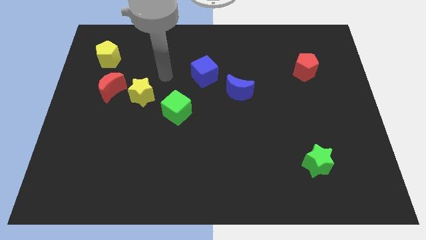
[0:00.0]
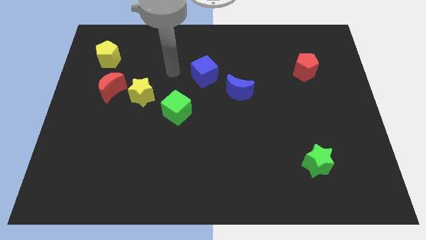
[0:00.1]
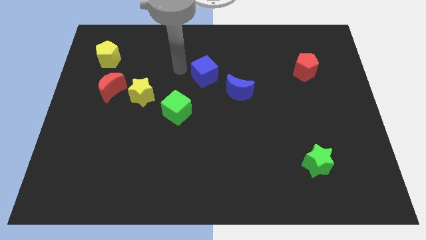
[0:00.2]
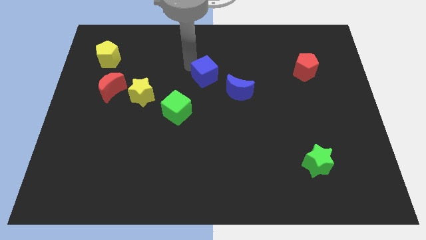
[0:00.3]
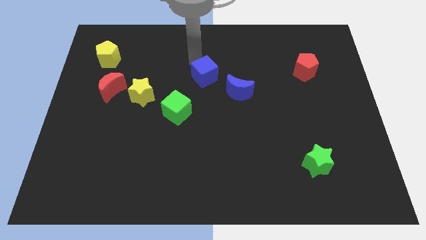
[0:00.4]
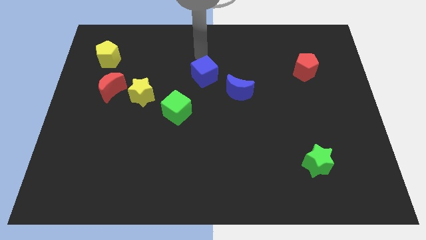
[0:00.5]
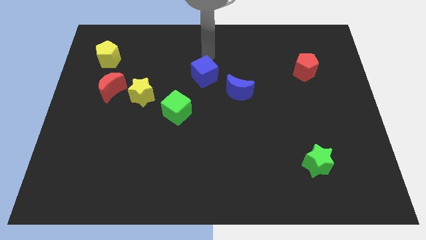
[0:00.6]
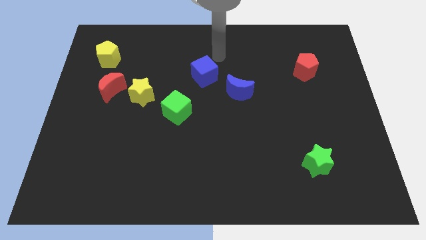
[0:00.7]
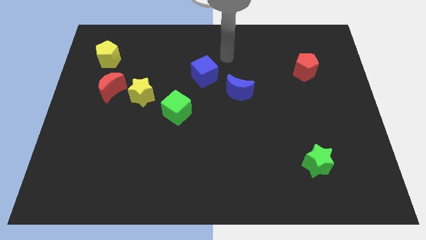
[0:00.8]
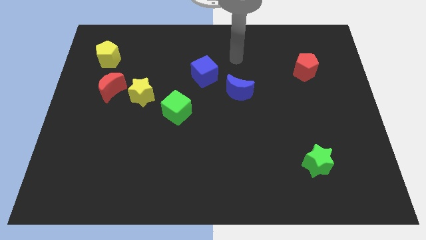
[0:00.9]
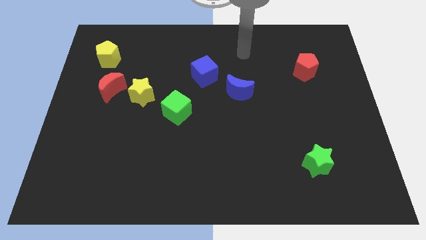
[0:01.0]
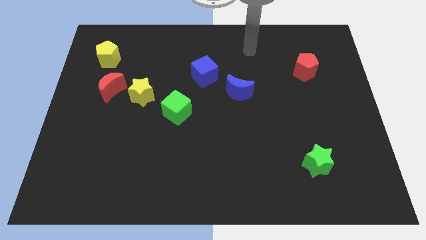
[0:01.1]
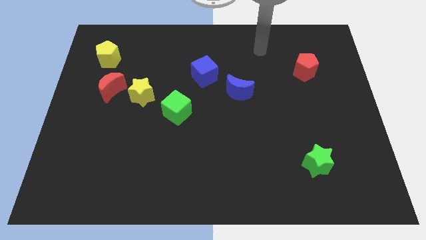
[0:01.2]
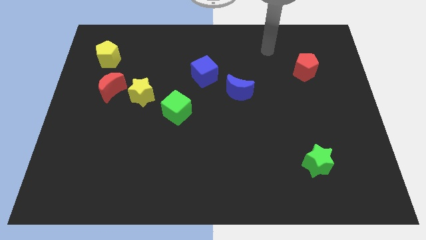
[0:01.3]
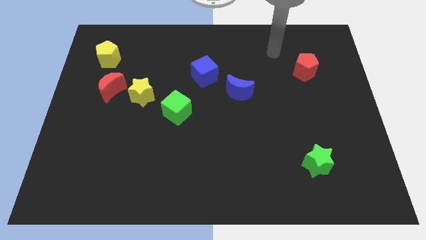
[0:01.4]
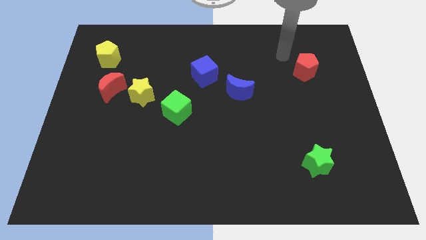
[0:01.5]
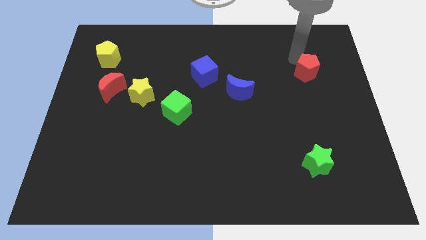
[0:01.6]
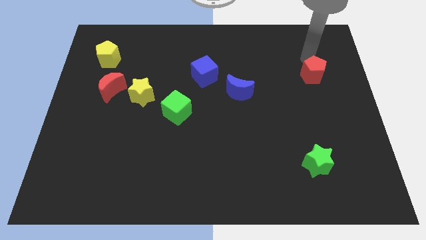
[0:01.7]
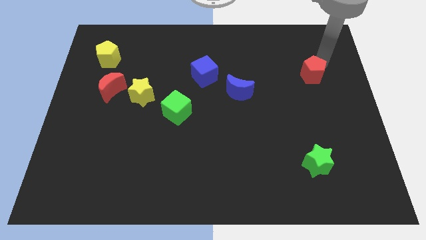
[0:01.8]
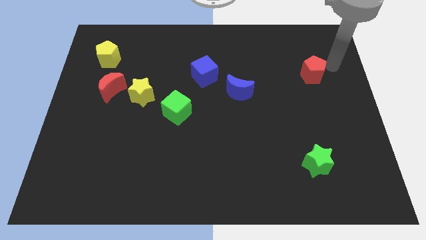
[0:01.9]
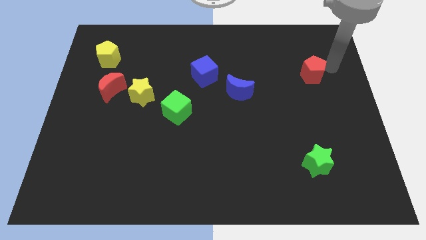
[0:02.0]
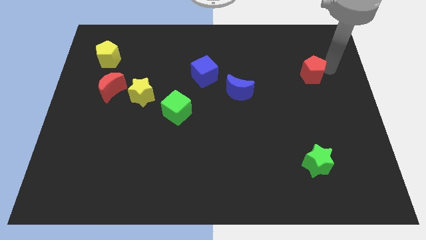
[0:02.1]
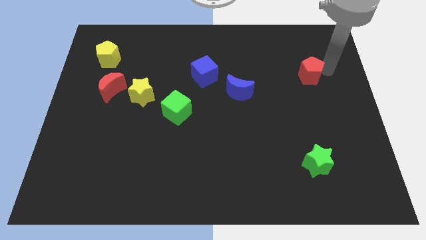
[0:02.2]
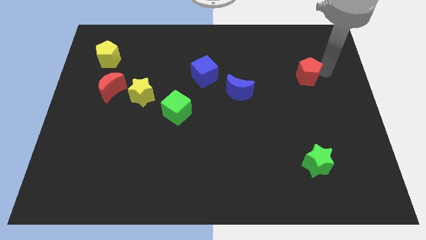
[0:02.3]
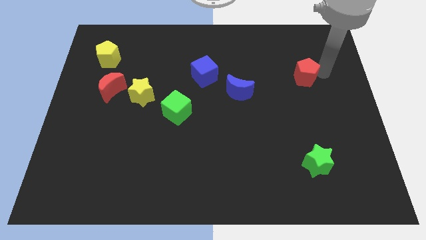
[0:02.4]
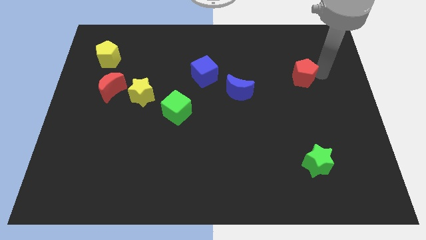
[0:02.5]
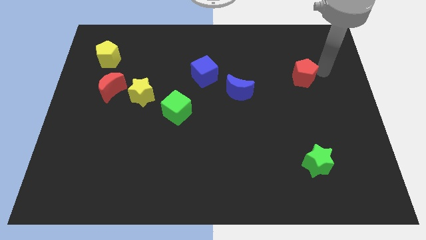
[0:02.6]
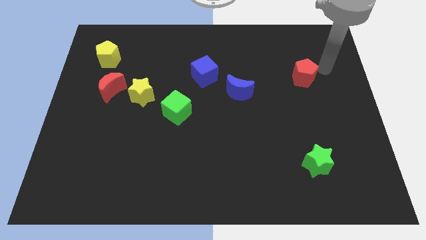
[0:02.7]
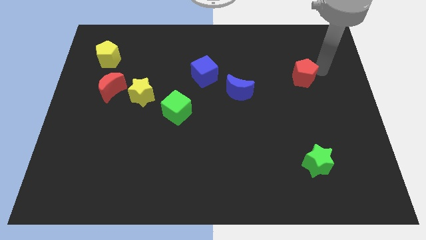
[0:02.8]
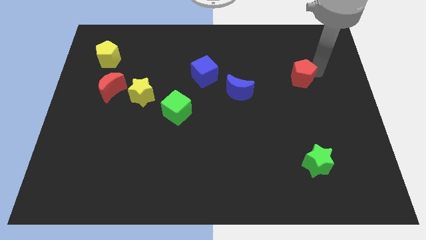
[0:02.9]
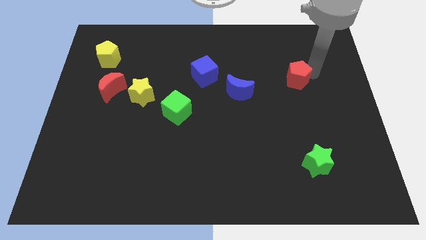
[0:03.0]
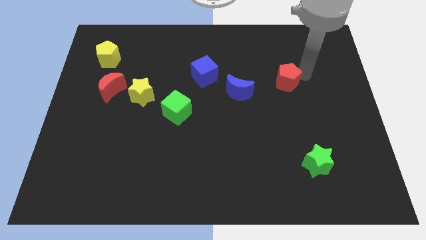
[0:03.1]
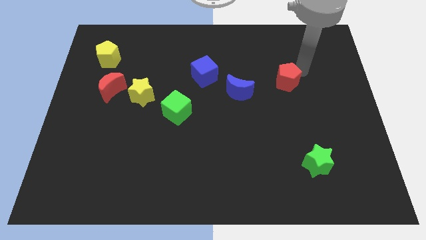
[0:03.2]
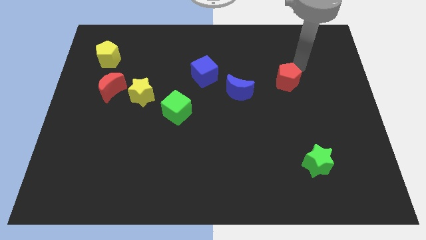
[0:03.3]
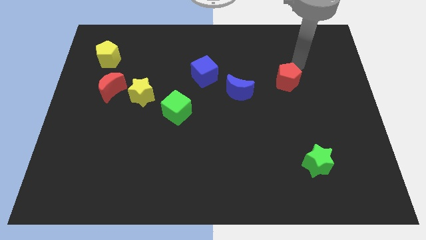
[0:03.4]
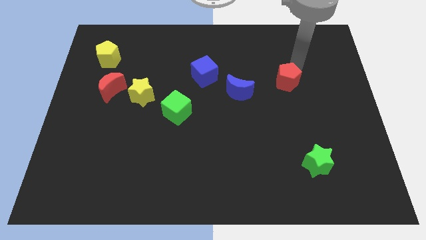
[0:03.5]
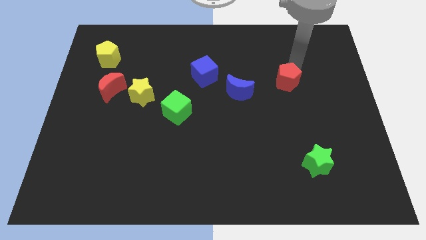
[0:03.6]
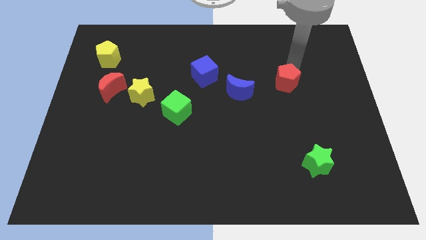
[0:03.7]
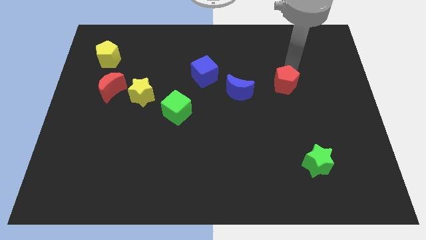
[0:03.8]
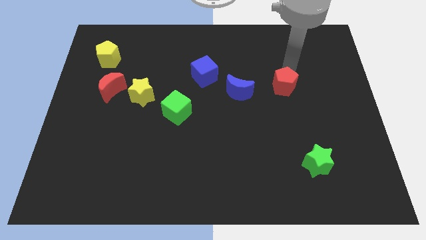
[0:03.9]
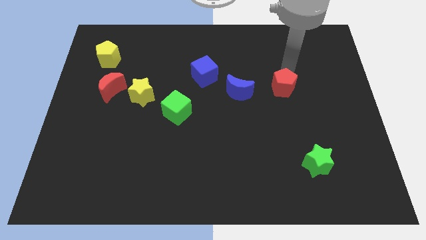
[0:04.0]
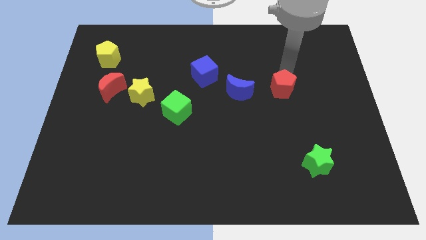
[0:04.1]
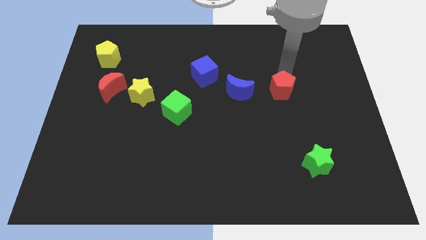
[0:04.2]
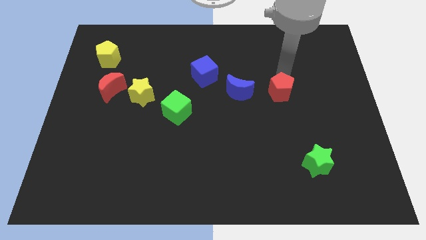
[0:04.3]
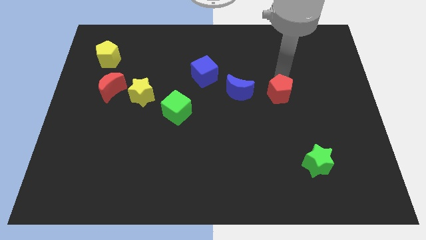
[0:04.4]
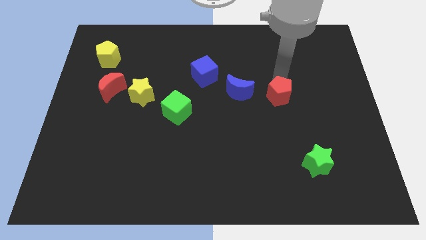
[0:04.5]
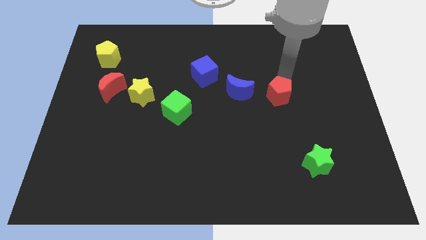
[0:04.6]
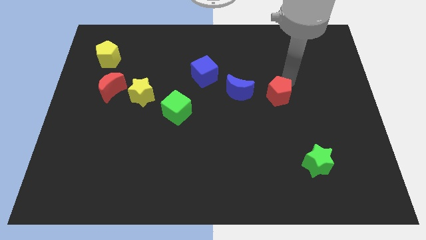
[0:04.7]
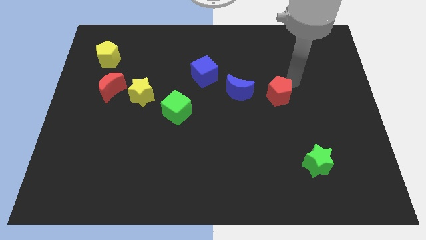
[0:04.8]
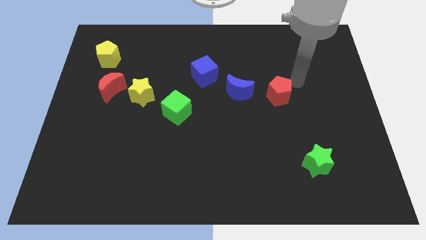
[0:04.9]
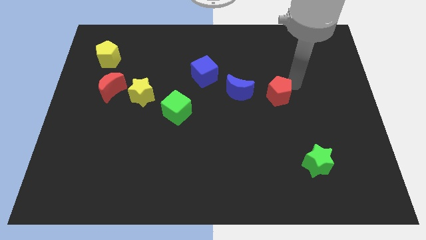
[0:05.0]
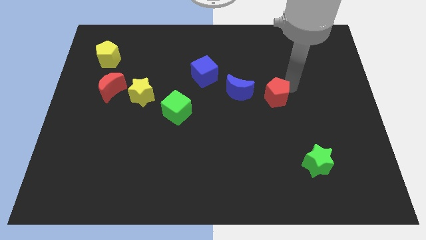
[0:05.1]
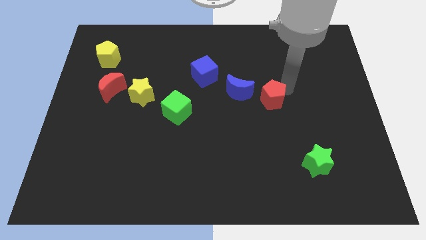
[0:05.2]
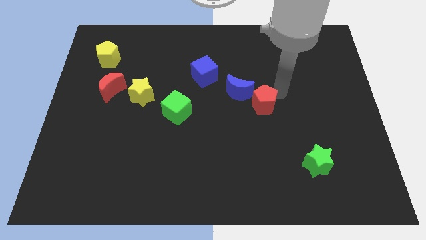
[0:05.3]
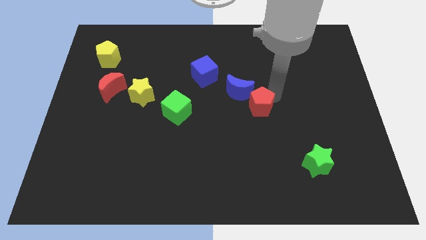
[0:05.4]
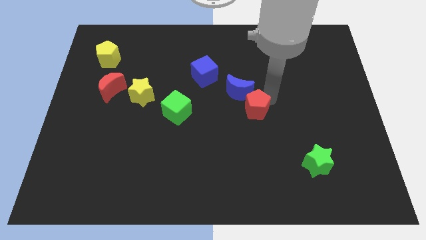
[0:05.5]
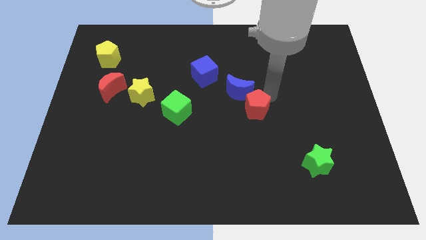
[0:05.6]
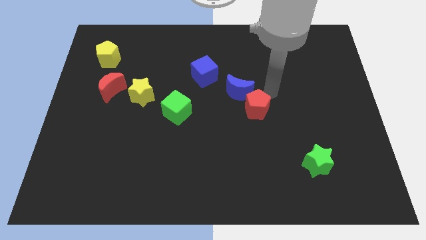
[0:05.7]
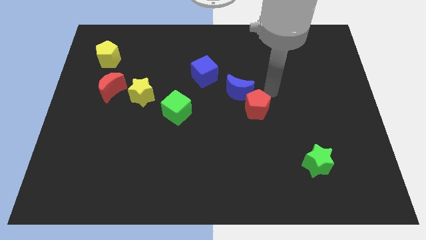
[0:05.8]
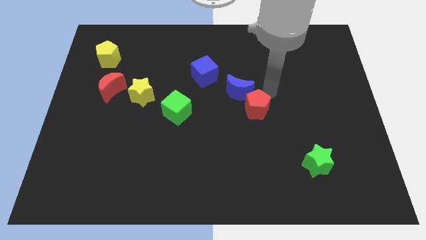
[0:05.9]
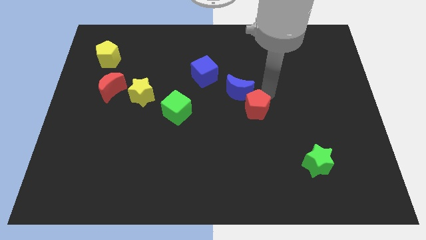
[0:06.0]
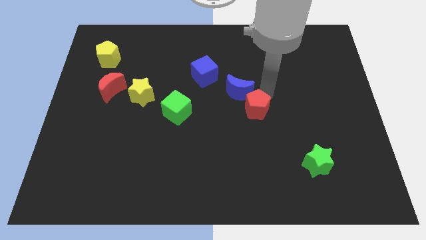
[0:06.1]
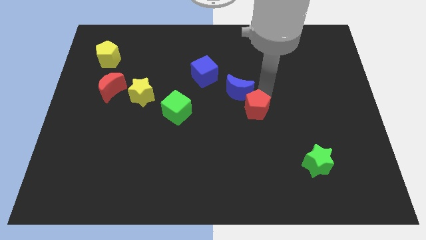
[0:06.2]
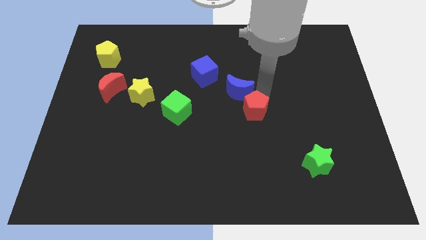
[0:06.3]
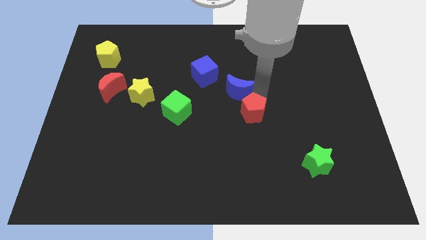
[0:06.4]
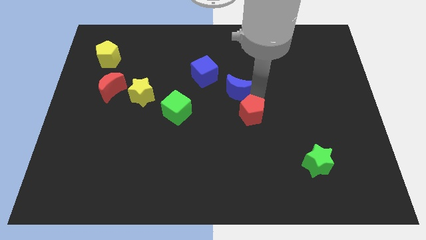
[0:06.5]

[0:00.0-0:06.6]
move the red pentagon downwards and left diagonally

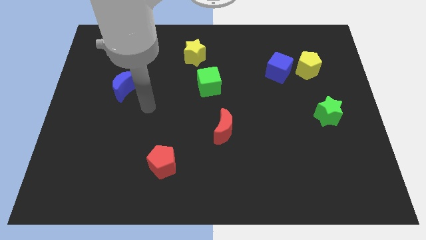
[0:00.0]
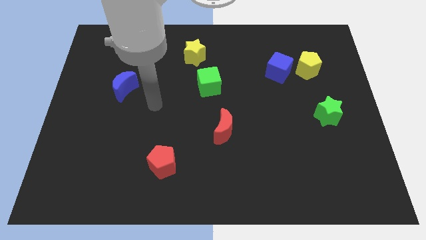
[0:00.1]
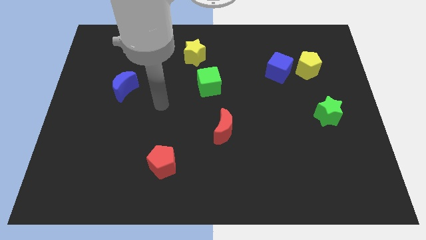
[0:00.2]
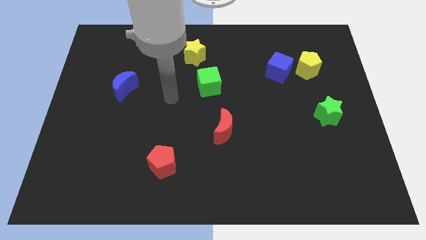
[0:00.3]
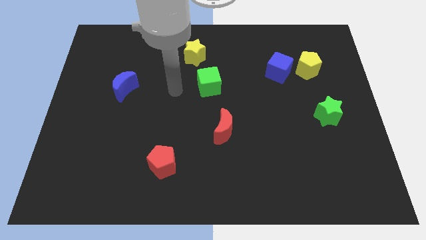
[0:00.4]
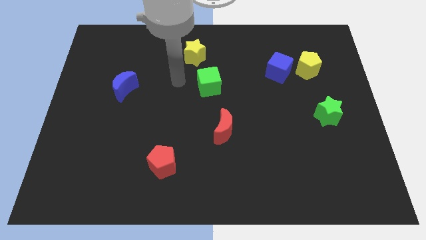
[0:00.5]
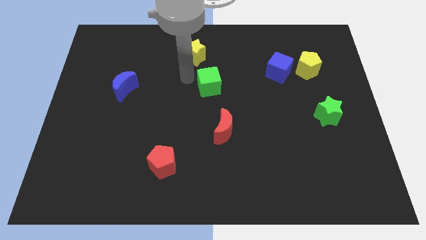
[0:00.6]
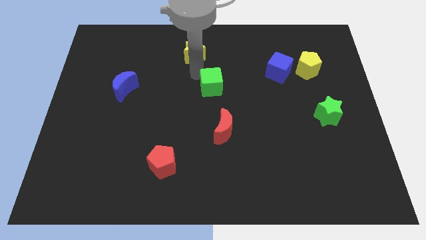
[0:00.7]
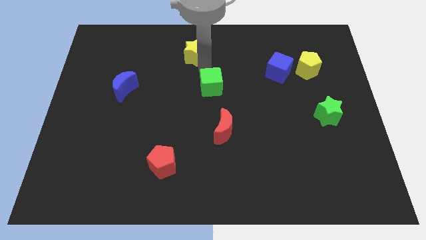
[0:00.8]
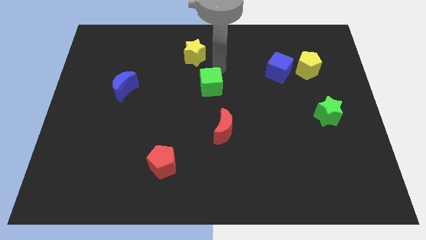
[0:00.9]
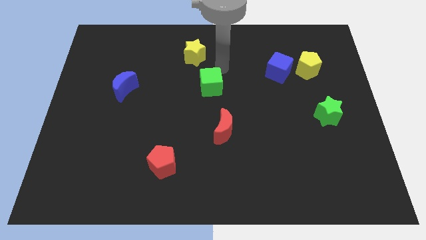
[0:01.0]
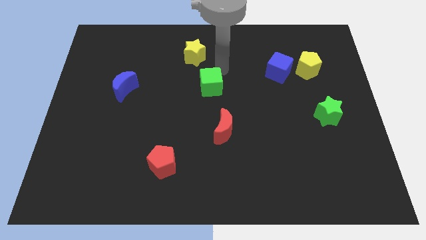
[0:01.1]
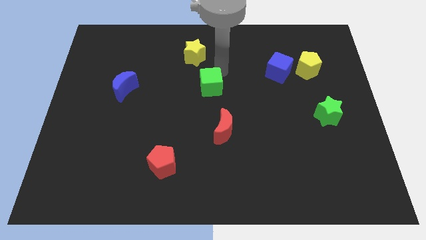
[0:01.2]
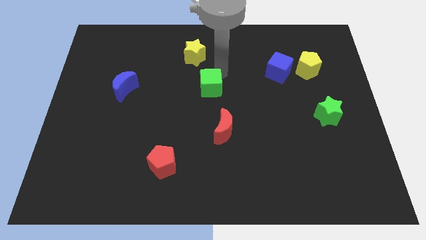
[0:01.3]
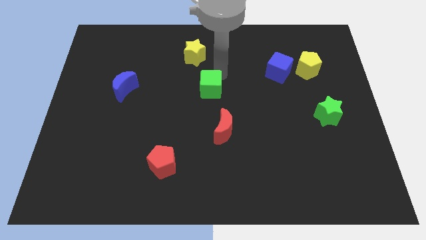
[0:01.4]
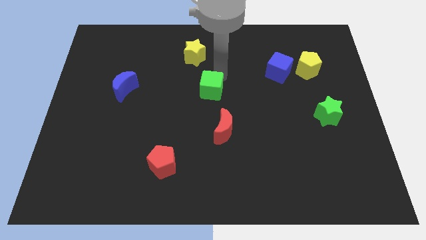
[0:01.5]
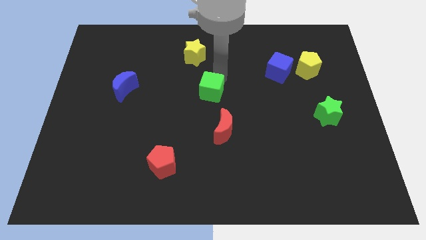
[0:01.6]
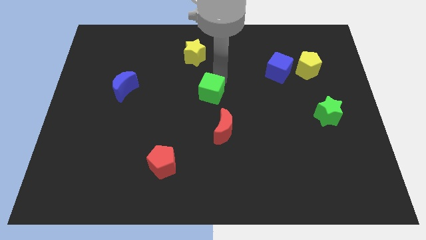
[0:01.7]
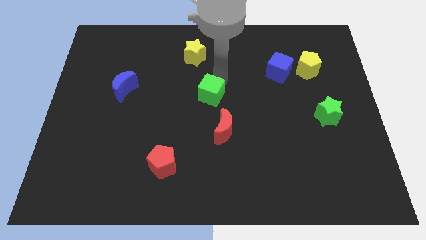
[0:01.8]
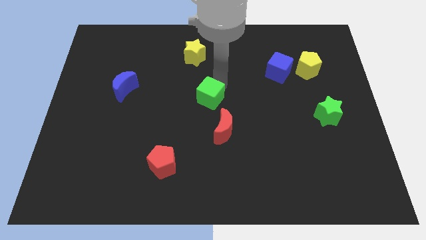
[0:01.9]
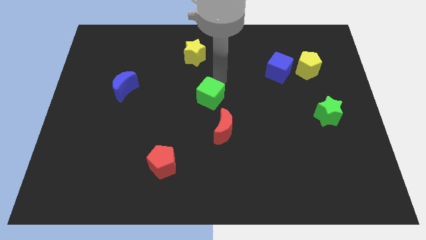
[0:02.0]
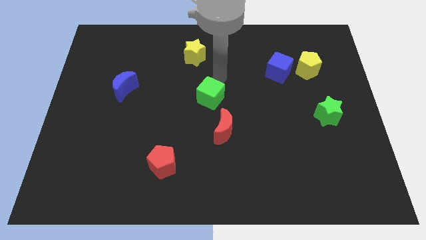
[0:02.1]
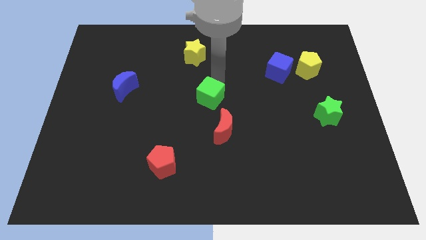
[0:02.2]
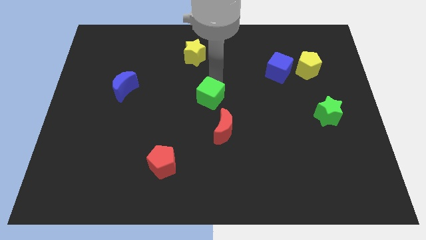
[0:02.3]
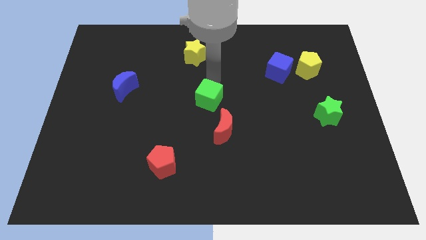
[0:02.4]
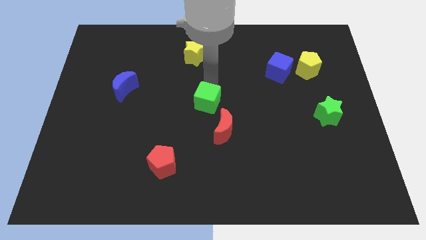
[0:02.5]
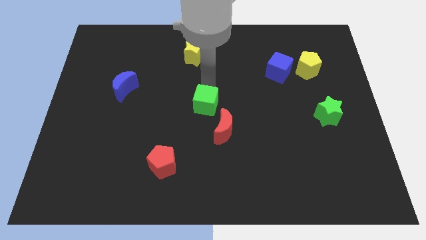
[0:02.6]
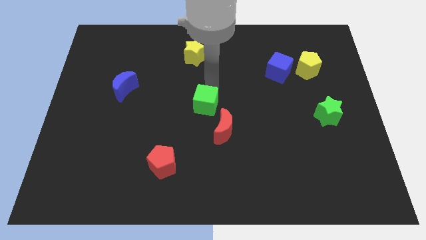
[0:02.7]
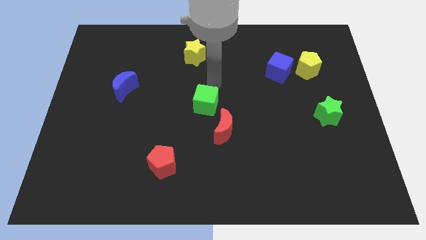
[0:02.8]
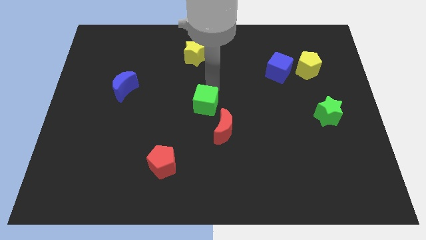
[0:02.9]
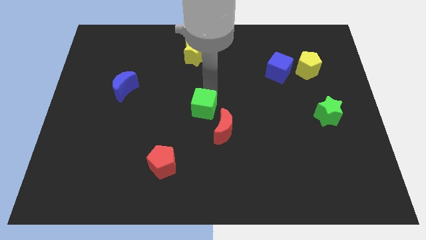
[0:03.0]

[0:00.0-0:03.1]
slightly push the green cube downwards
